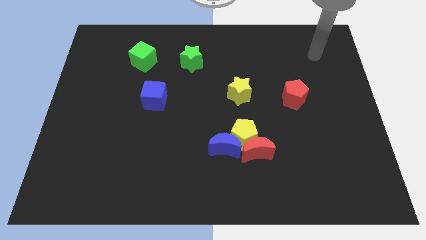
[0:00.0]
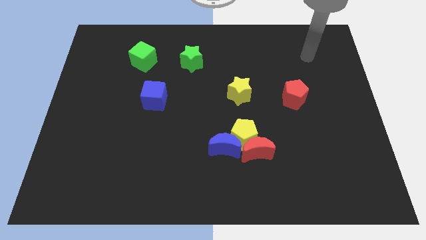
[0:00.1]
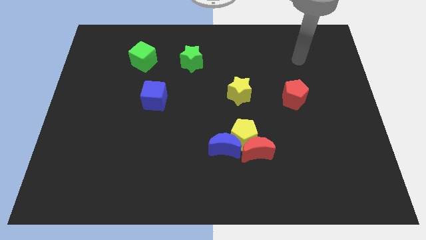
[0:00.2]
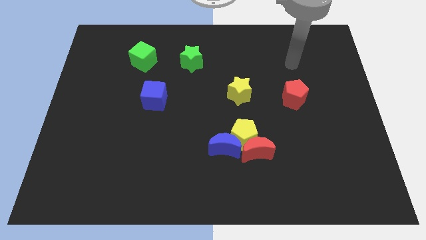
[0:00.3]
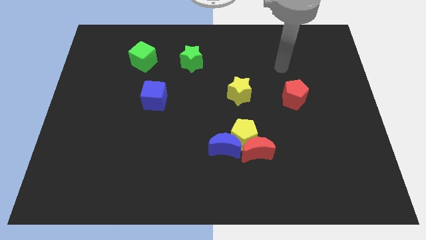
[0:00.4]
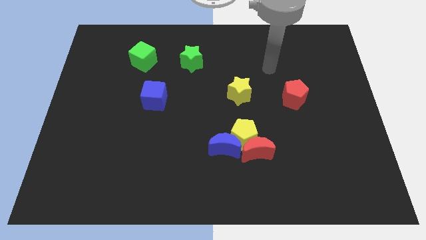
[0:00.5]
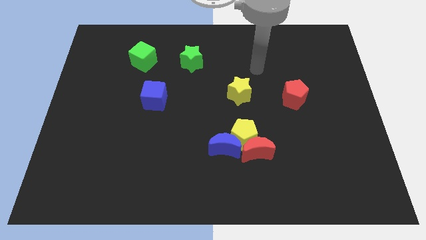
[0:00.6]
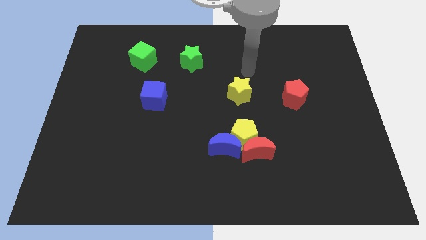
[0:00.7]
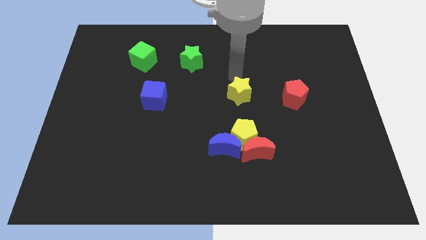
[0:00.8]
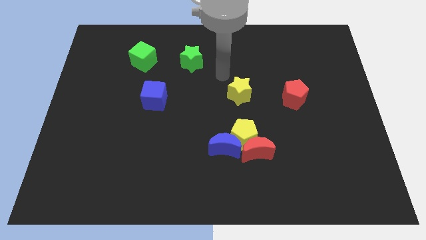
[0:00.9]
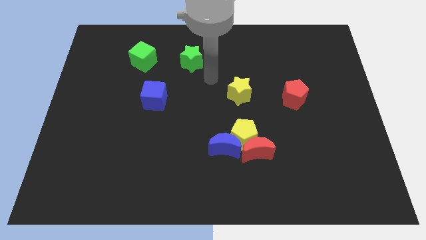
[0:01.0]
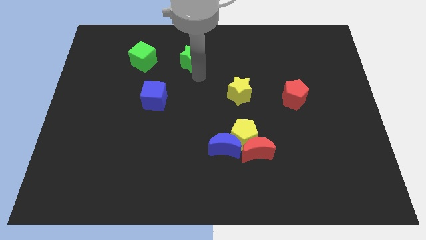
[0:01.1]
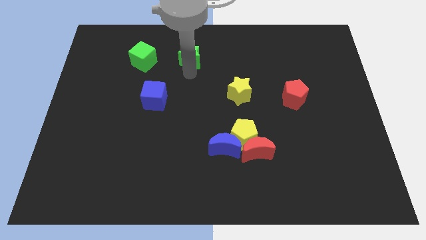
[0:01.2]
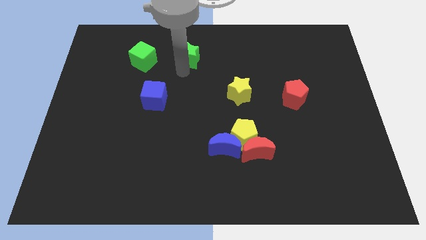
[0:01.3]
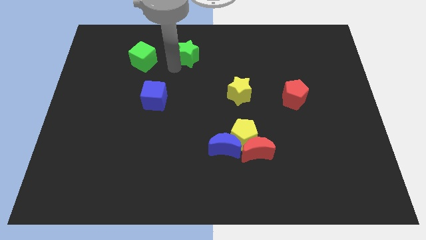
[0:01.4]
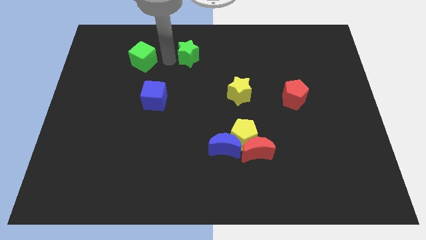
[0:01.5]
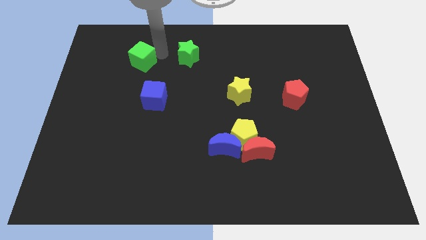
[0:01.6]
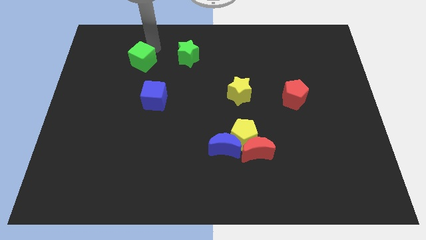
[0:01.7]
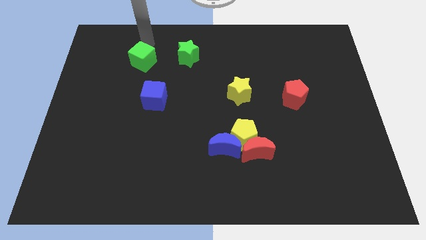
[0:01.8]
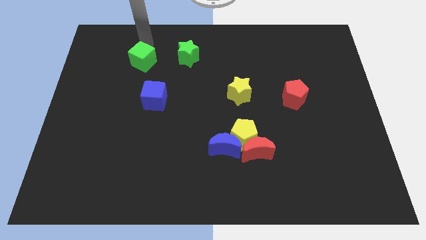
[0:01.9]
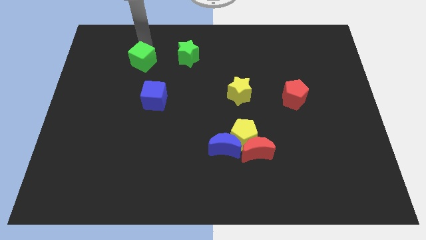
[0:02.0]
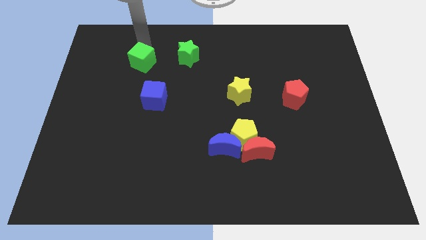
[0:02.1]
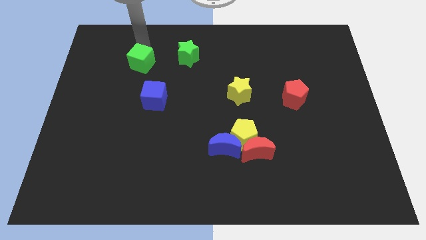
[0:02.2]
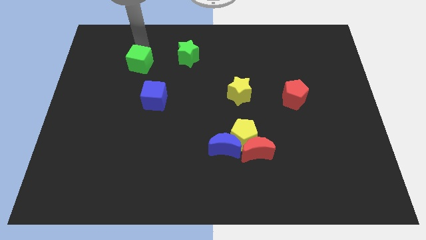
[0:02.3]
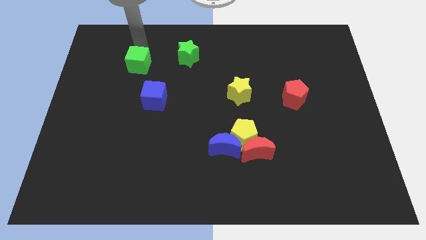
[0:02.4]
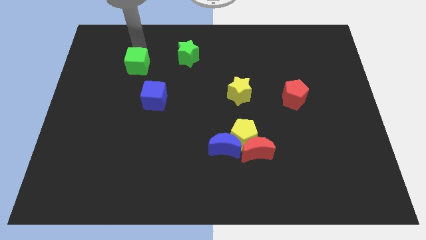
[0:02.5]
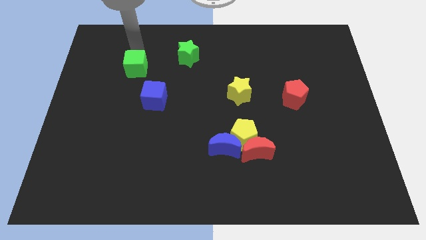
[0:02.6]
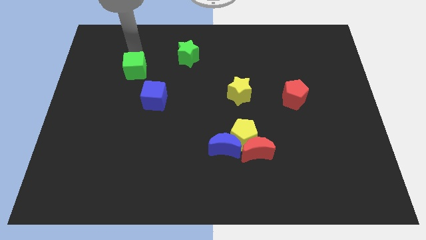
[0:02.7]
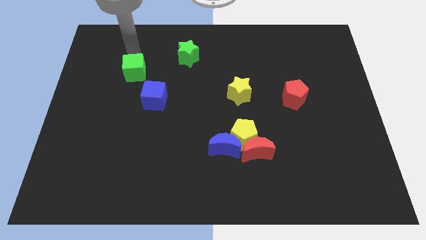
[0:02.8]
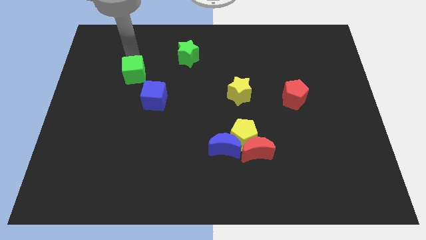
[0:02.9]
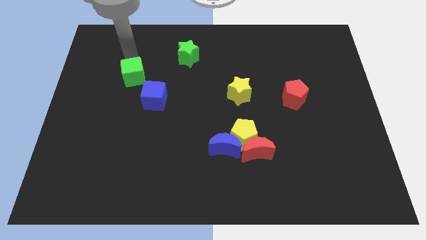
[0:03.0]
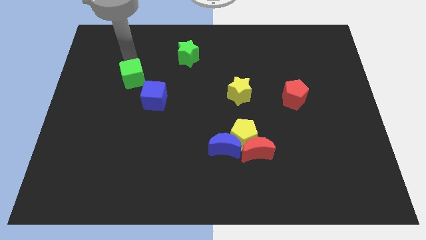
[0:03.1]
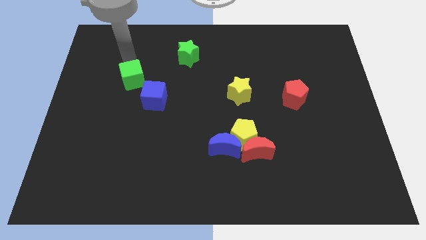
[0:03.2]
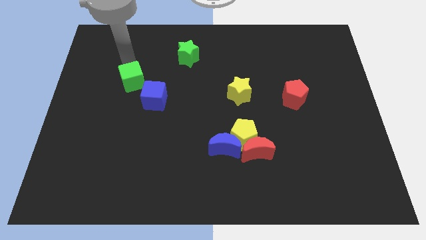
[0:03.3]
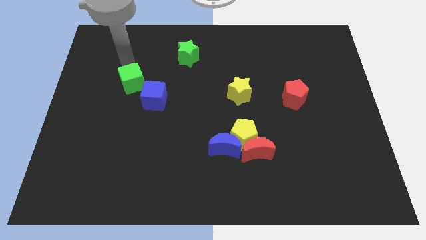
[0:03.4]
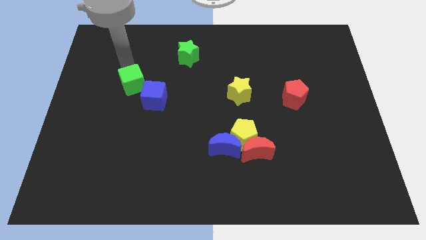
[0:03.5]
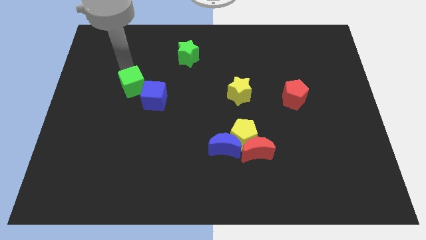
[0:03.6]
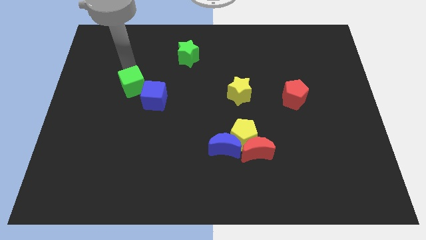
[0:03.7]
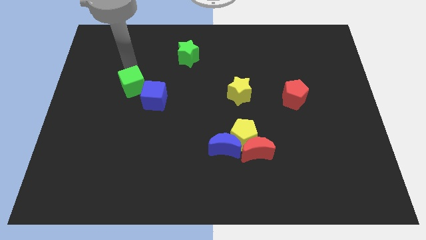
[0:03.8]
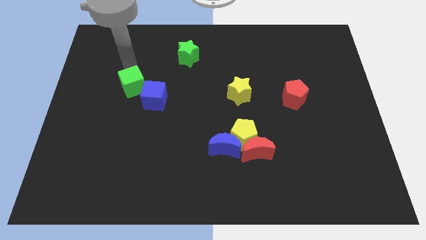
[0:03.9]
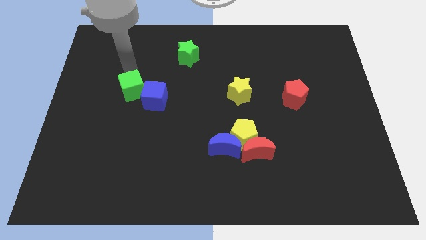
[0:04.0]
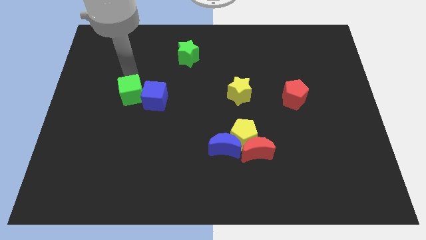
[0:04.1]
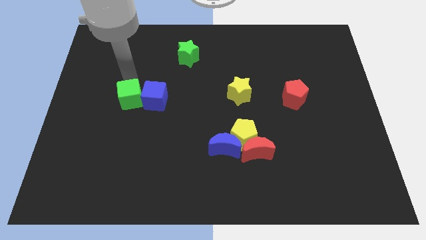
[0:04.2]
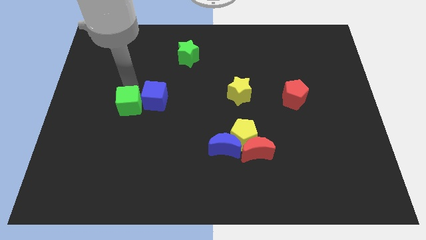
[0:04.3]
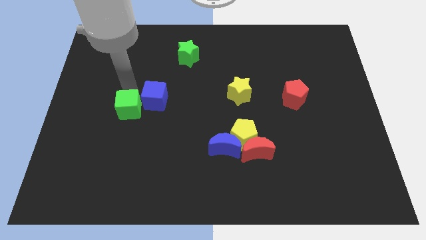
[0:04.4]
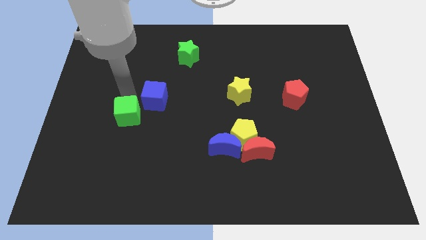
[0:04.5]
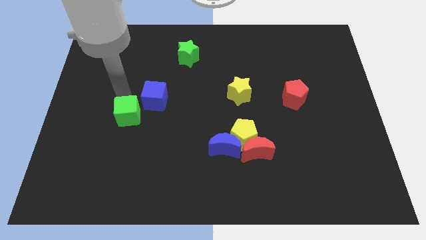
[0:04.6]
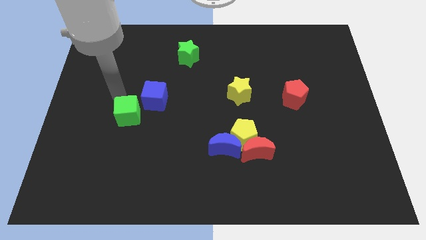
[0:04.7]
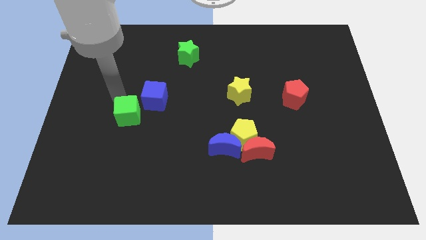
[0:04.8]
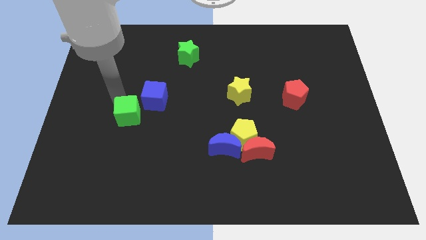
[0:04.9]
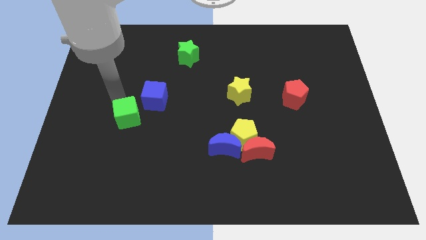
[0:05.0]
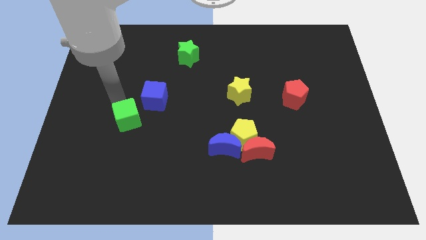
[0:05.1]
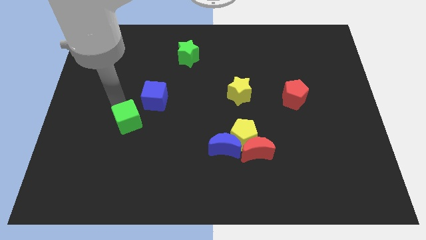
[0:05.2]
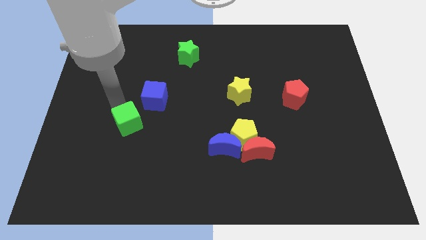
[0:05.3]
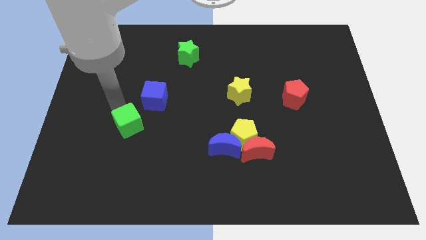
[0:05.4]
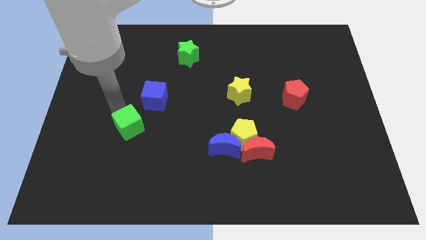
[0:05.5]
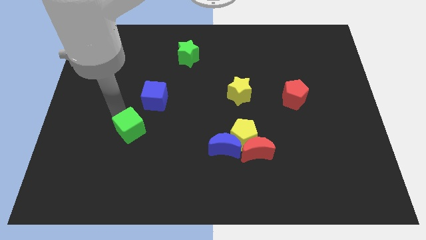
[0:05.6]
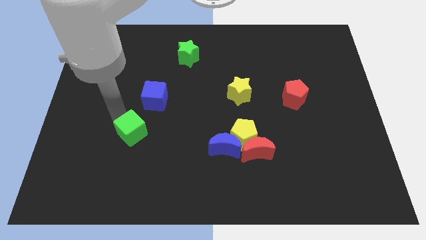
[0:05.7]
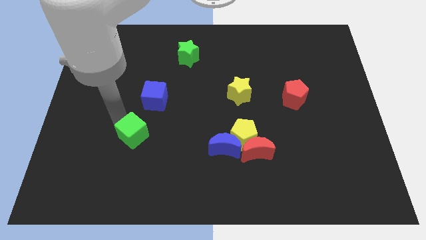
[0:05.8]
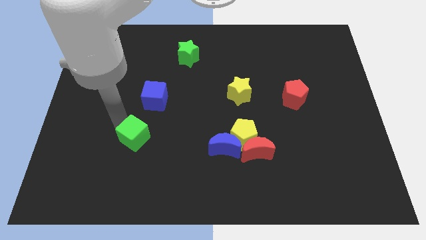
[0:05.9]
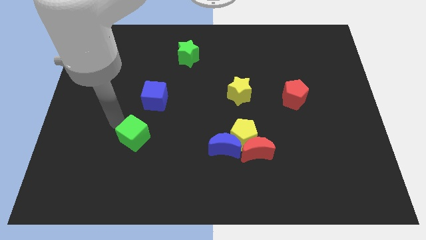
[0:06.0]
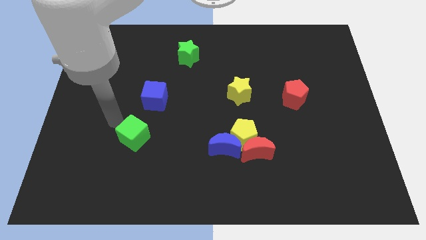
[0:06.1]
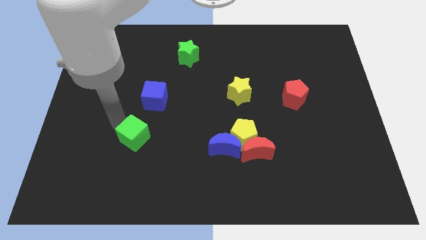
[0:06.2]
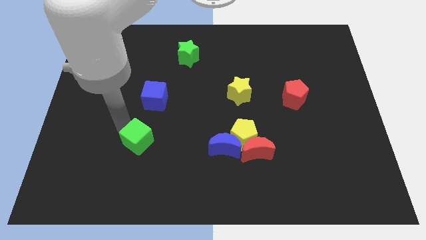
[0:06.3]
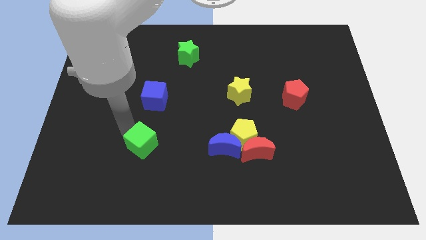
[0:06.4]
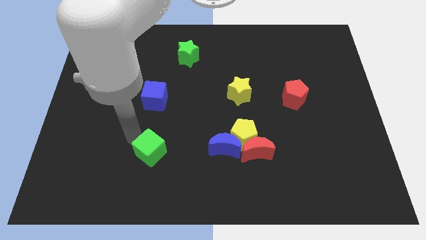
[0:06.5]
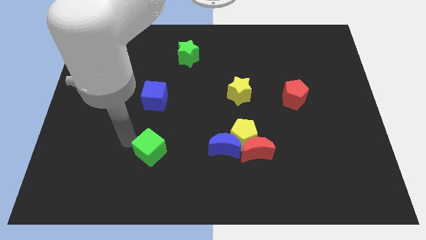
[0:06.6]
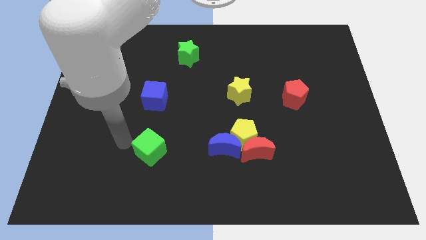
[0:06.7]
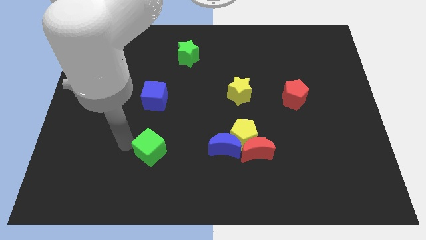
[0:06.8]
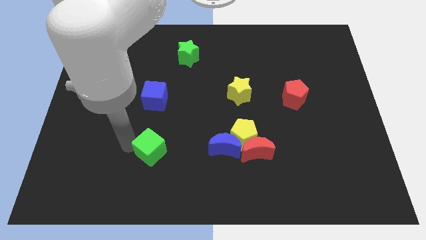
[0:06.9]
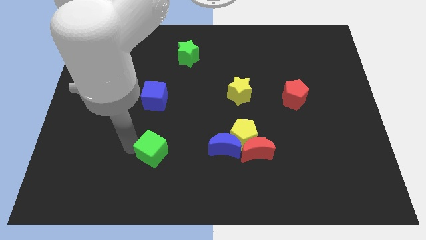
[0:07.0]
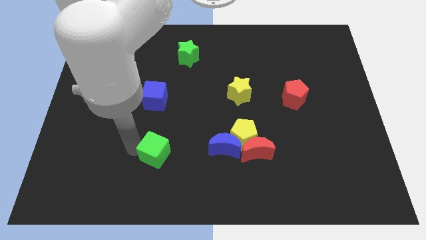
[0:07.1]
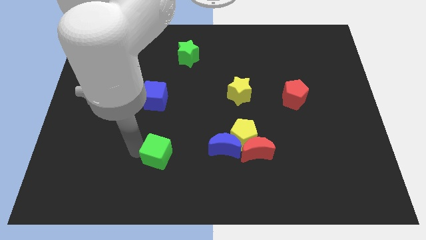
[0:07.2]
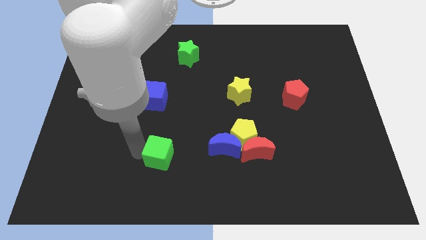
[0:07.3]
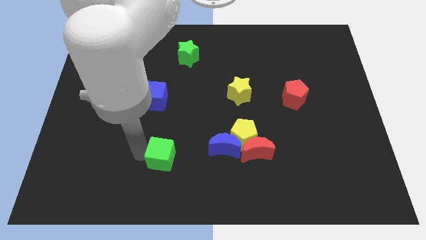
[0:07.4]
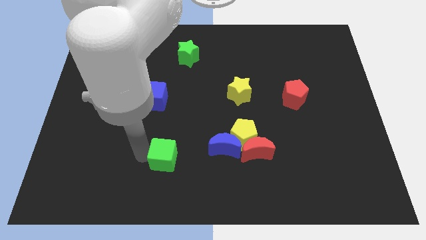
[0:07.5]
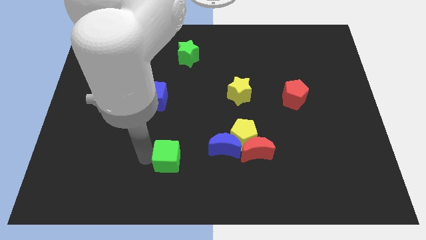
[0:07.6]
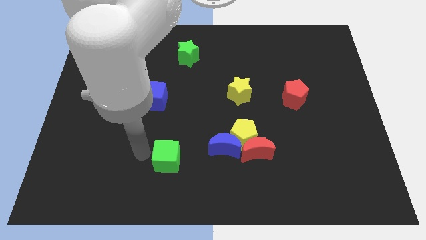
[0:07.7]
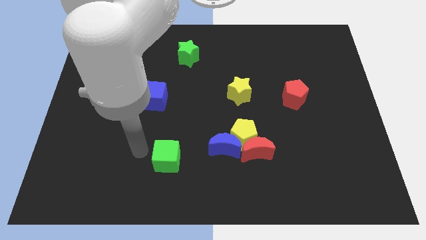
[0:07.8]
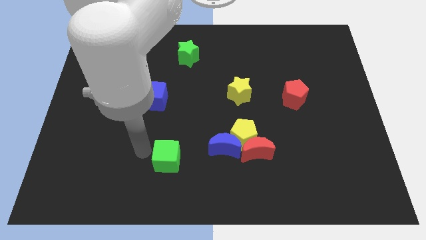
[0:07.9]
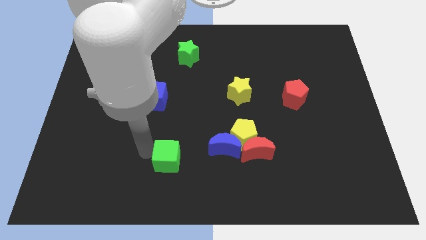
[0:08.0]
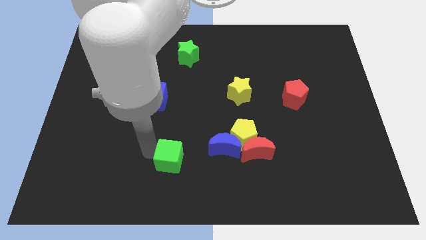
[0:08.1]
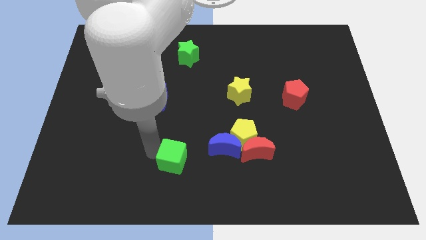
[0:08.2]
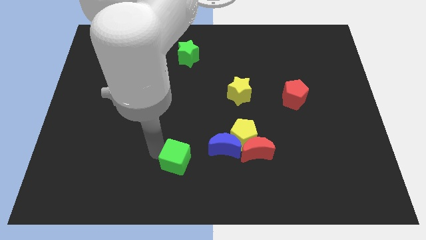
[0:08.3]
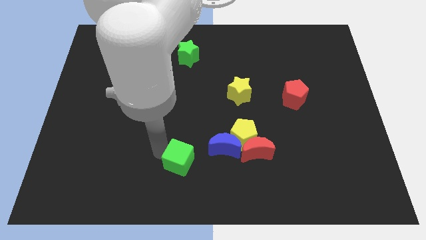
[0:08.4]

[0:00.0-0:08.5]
move the green cube to the bottom left of the blue moon
